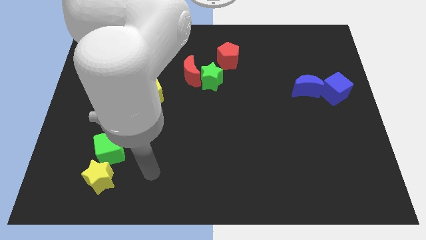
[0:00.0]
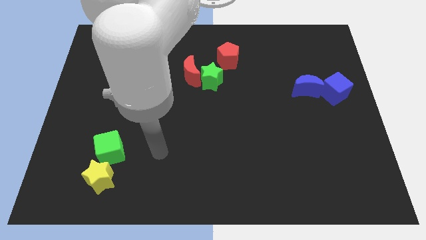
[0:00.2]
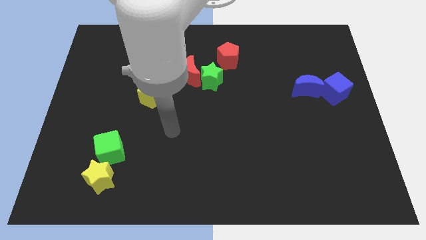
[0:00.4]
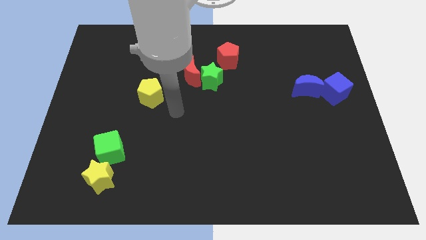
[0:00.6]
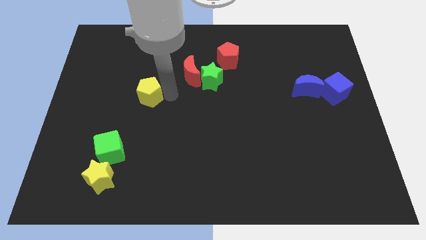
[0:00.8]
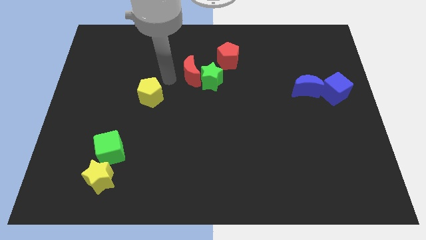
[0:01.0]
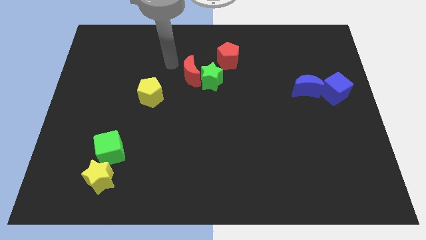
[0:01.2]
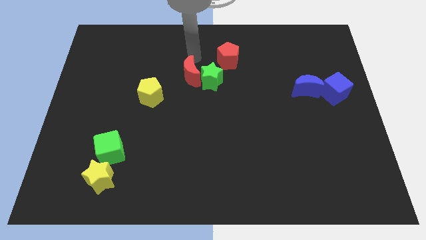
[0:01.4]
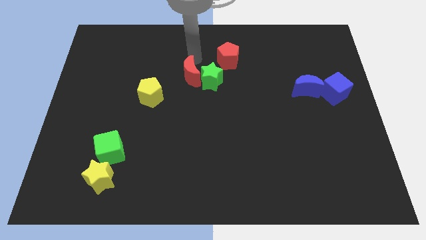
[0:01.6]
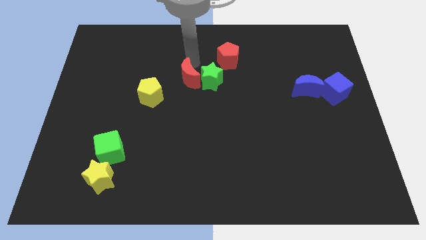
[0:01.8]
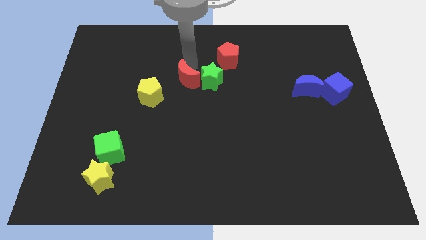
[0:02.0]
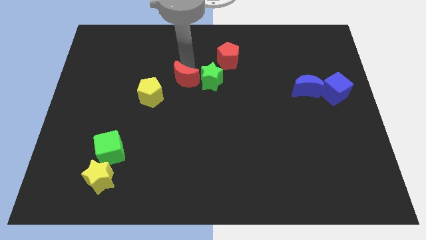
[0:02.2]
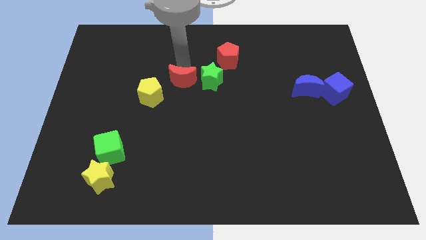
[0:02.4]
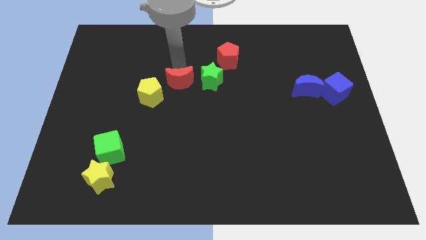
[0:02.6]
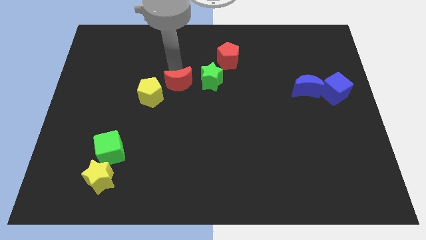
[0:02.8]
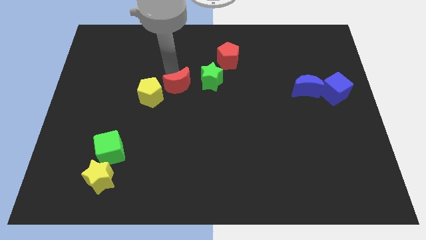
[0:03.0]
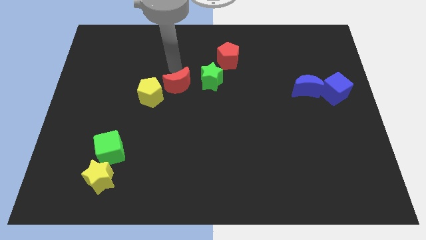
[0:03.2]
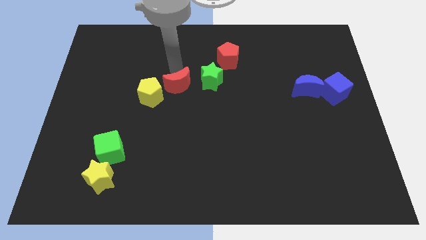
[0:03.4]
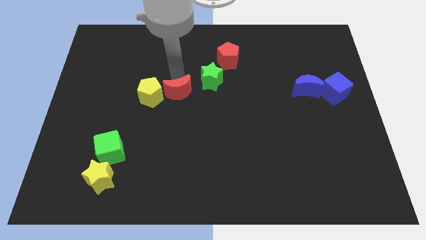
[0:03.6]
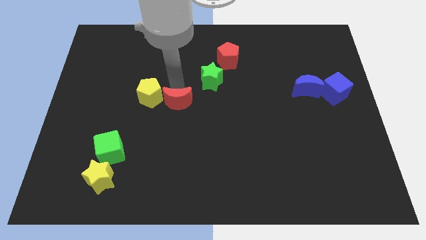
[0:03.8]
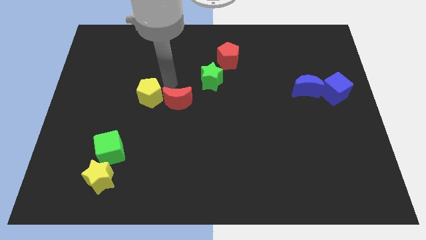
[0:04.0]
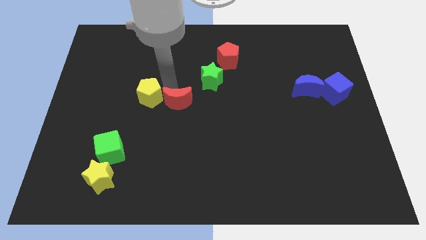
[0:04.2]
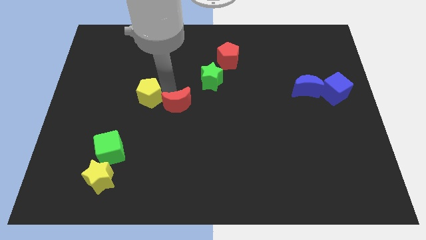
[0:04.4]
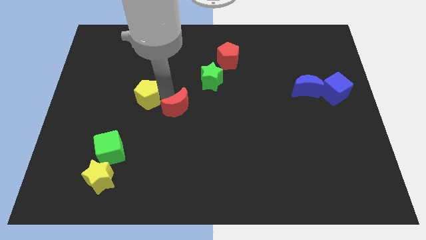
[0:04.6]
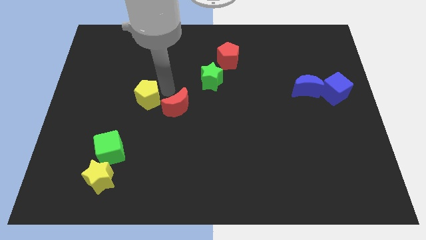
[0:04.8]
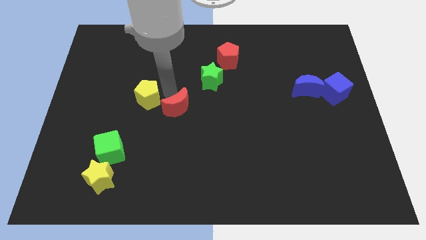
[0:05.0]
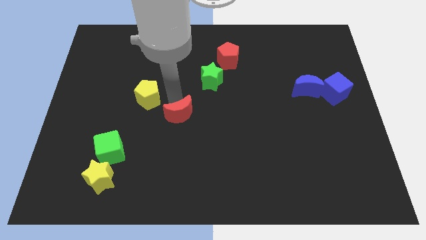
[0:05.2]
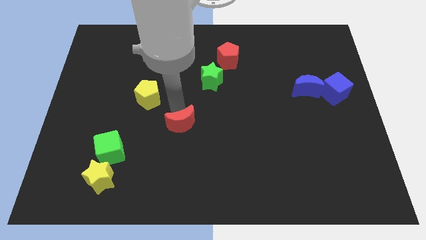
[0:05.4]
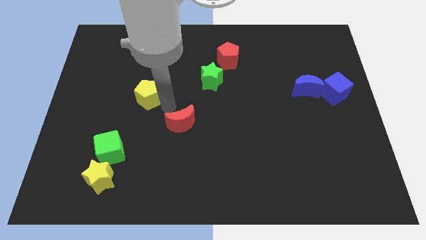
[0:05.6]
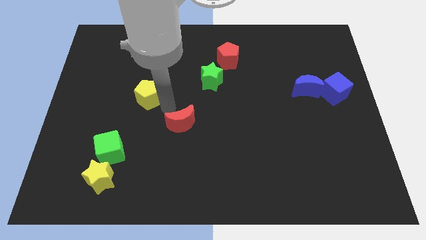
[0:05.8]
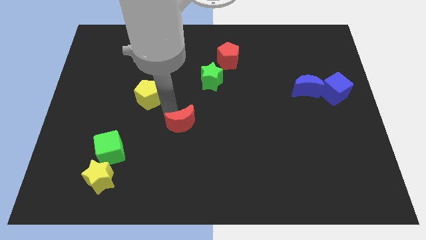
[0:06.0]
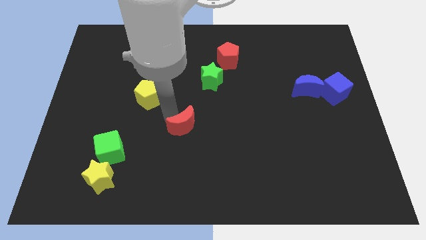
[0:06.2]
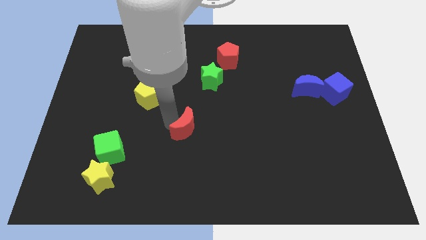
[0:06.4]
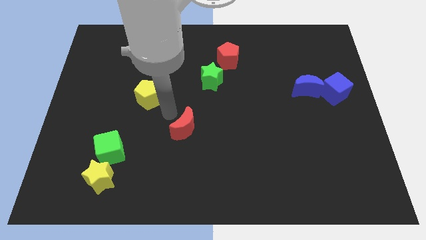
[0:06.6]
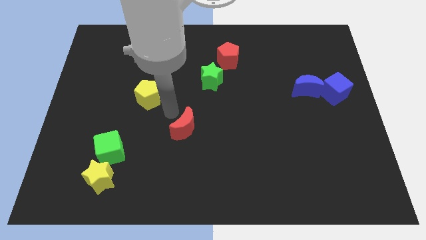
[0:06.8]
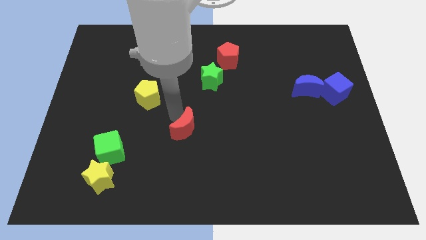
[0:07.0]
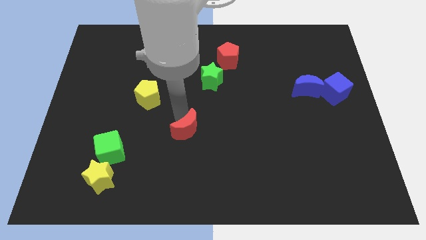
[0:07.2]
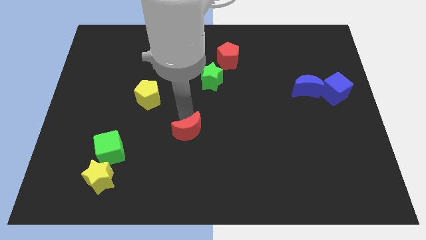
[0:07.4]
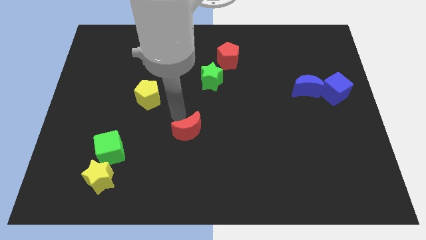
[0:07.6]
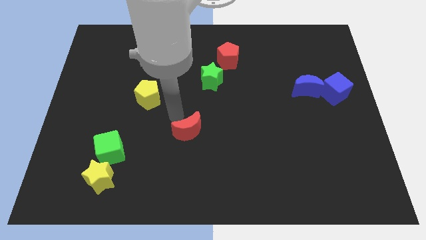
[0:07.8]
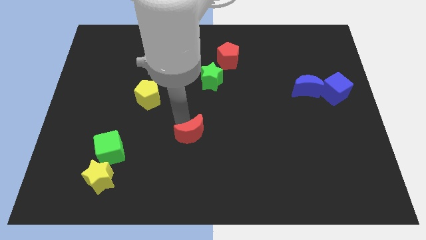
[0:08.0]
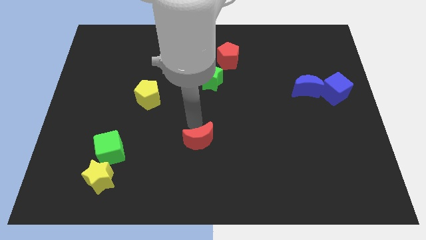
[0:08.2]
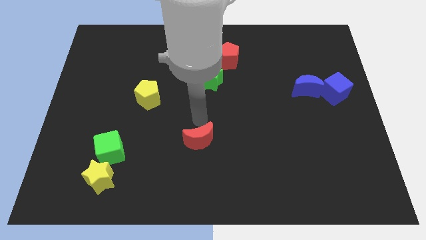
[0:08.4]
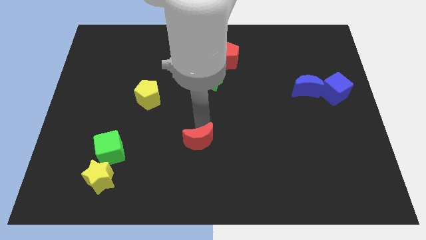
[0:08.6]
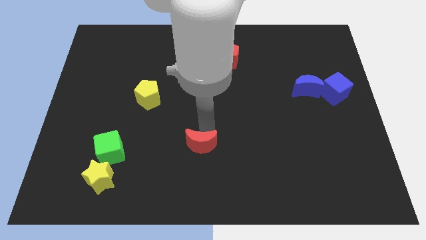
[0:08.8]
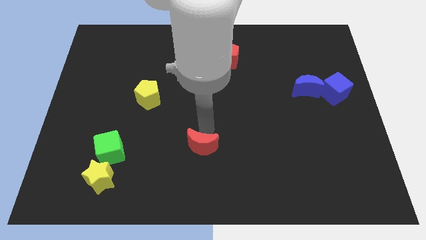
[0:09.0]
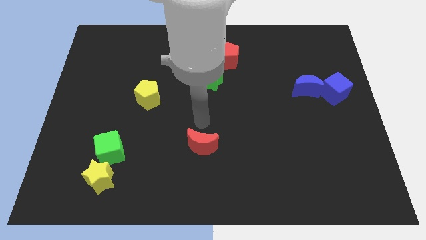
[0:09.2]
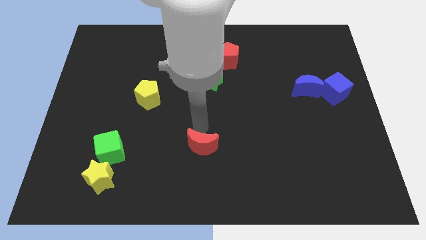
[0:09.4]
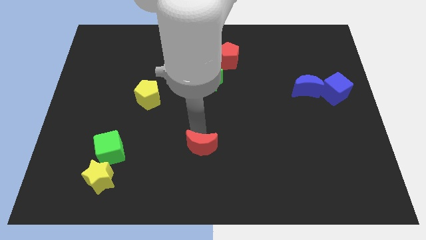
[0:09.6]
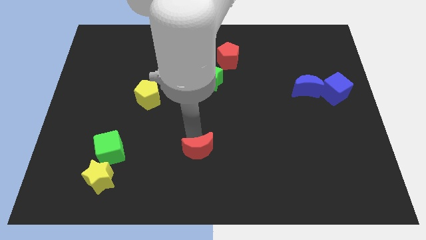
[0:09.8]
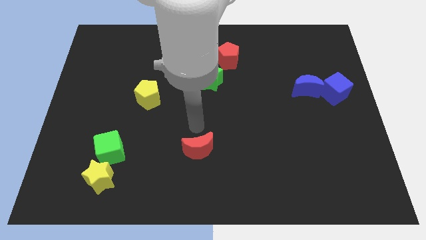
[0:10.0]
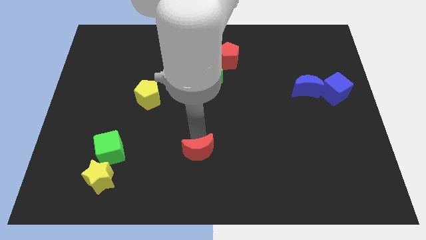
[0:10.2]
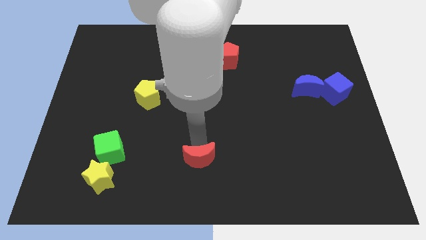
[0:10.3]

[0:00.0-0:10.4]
put the red moon to the bottom side

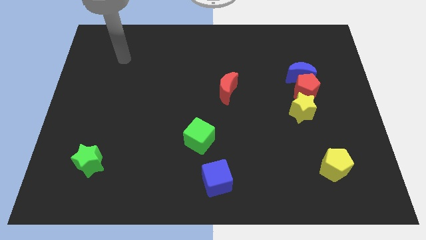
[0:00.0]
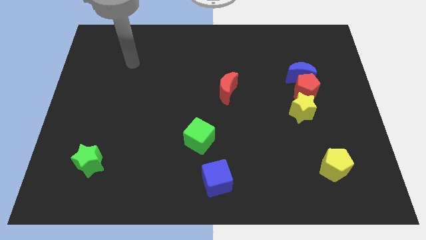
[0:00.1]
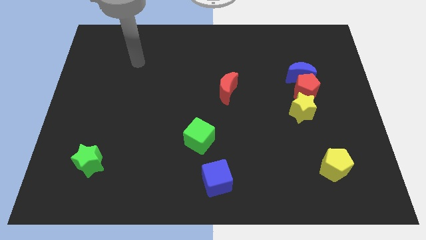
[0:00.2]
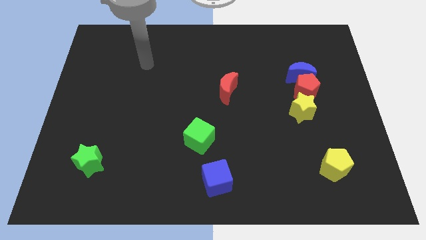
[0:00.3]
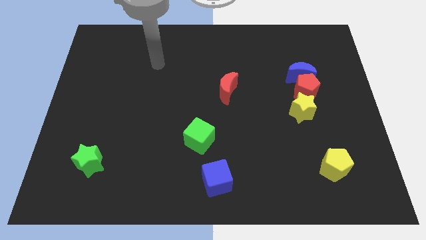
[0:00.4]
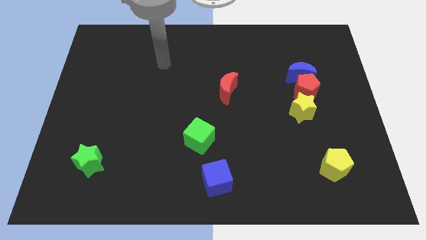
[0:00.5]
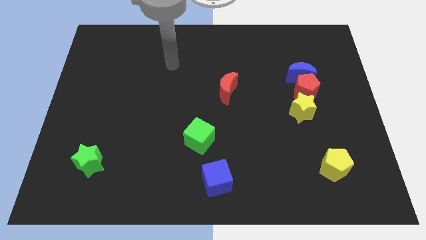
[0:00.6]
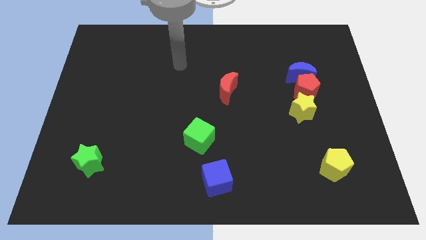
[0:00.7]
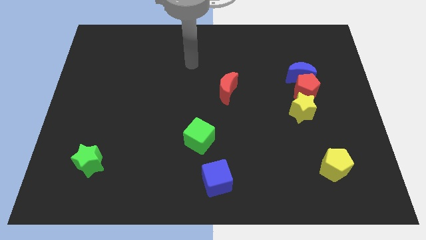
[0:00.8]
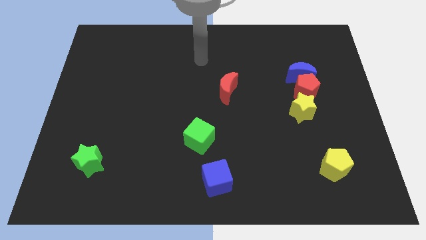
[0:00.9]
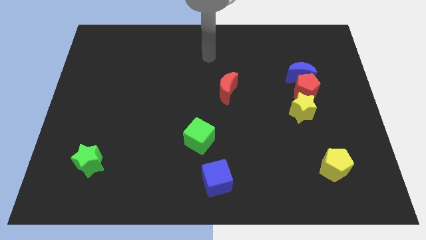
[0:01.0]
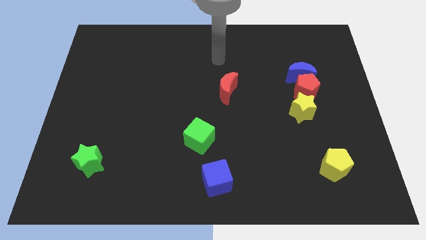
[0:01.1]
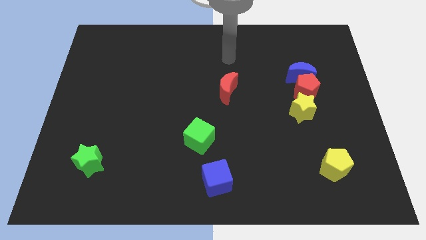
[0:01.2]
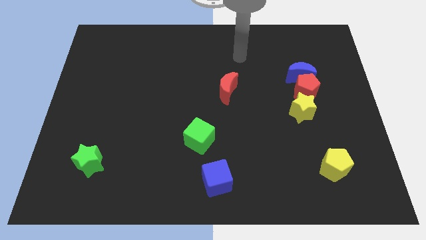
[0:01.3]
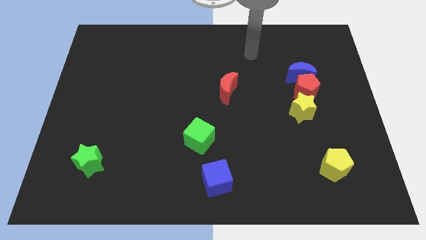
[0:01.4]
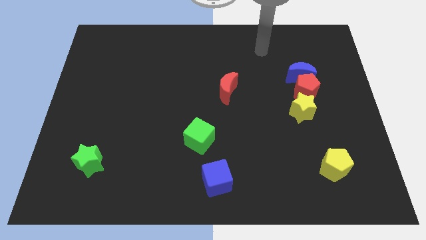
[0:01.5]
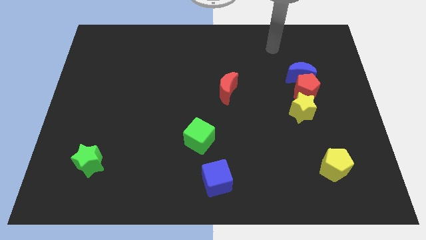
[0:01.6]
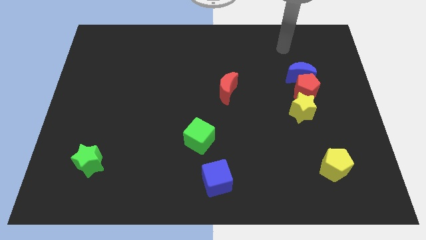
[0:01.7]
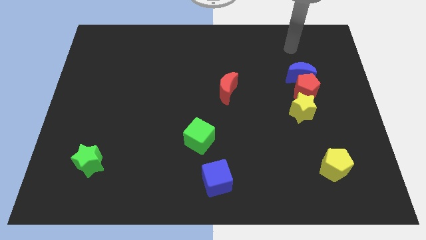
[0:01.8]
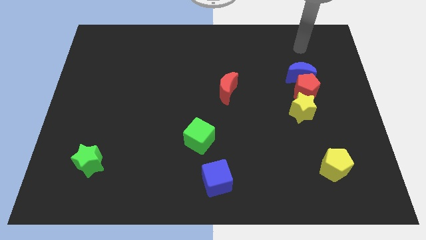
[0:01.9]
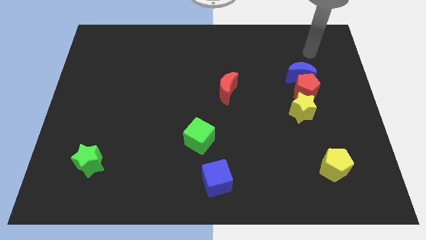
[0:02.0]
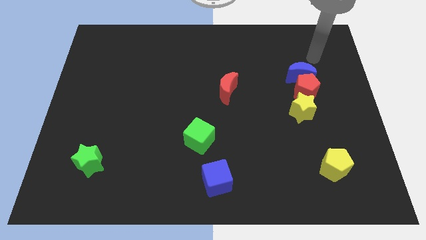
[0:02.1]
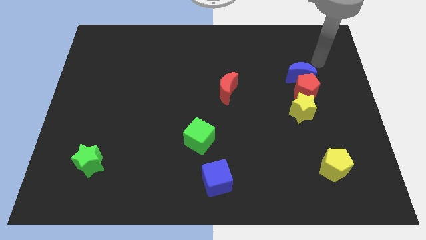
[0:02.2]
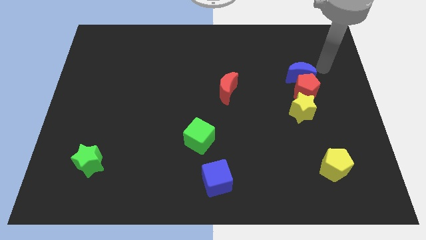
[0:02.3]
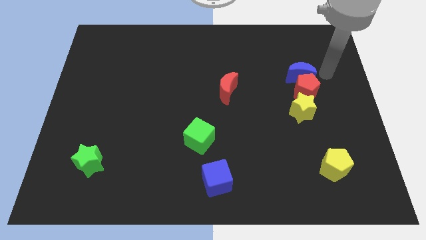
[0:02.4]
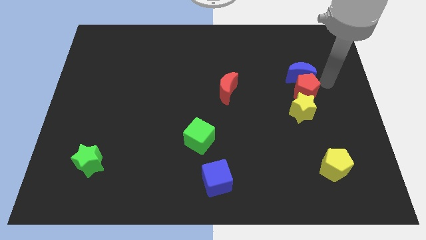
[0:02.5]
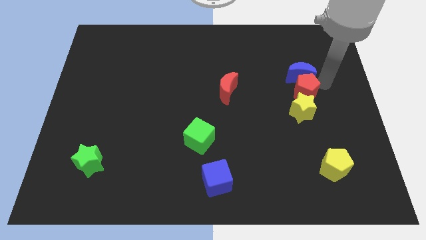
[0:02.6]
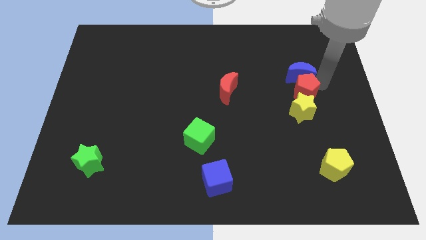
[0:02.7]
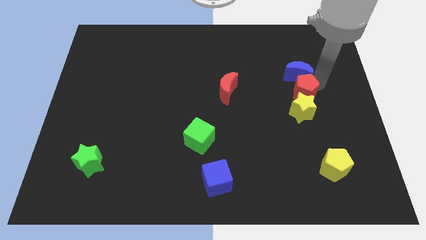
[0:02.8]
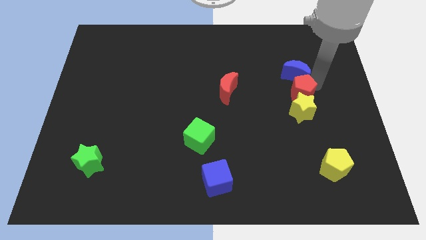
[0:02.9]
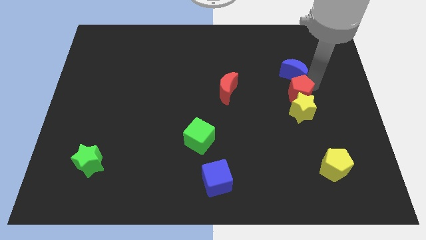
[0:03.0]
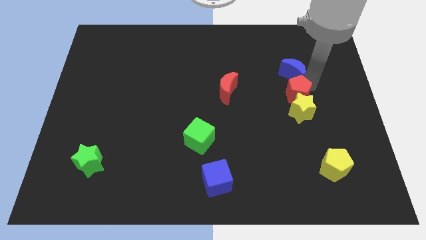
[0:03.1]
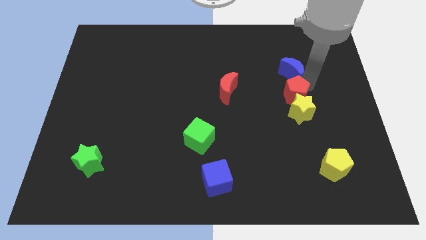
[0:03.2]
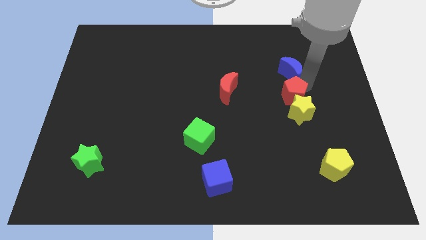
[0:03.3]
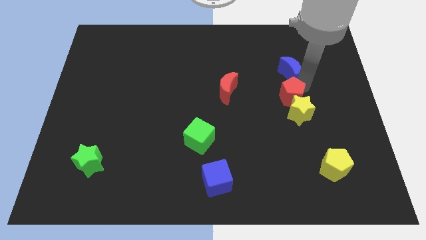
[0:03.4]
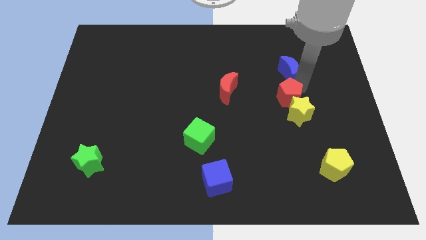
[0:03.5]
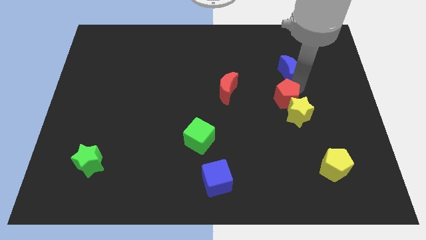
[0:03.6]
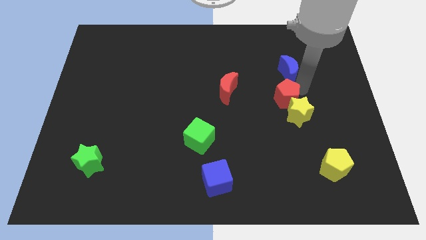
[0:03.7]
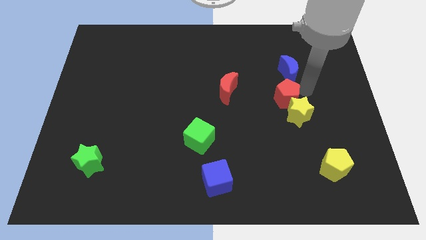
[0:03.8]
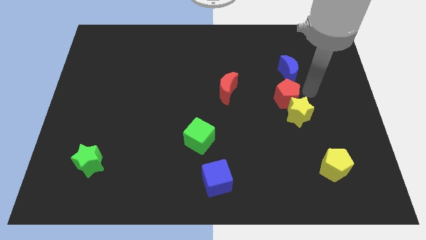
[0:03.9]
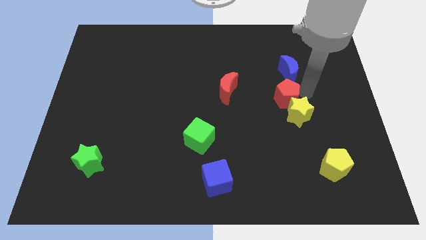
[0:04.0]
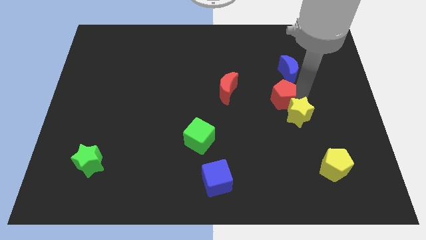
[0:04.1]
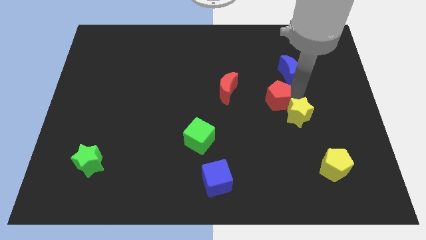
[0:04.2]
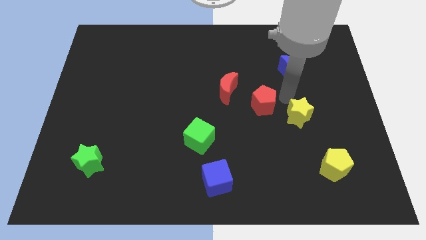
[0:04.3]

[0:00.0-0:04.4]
put the red pentagon to the middle
